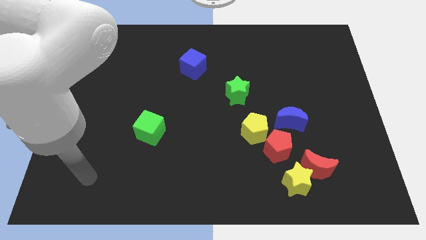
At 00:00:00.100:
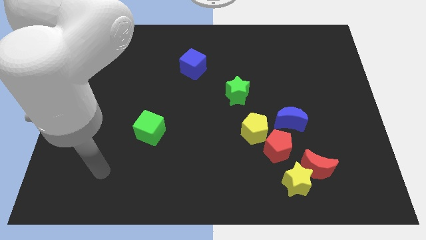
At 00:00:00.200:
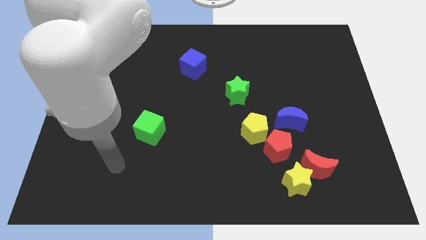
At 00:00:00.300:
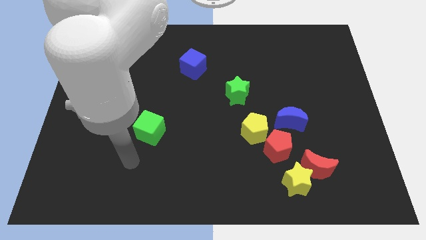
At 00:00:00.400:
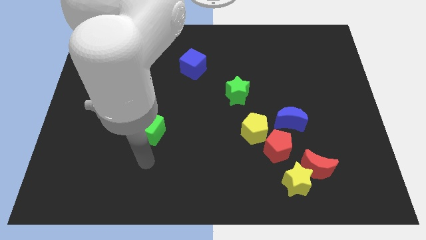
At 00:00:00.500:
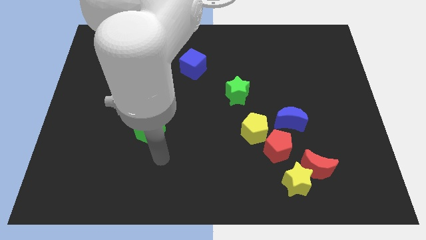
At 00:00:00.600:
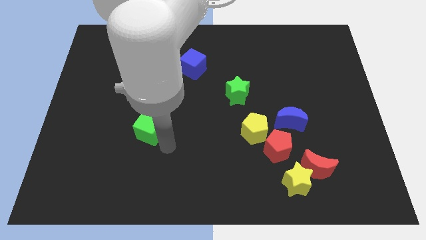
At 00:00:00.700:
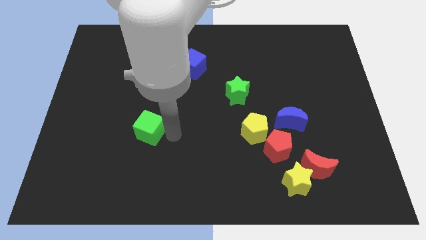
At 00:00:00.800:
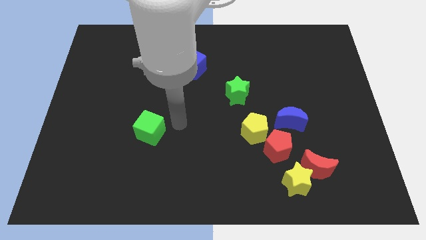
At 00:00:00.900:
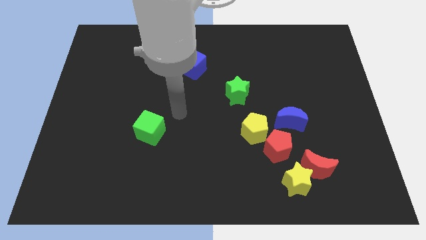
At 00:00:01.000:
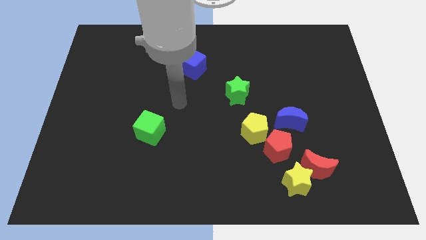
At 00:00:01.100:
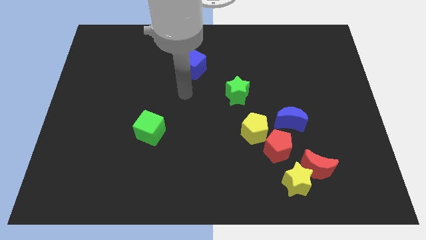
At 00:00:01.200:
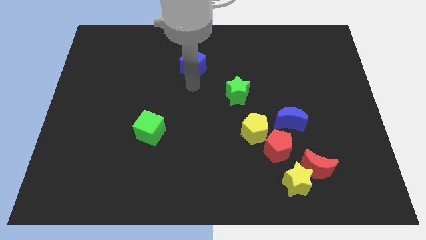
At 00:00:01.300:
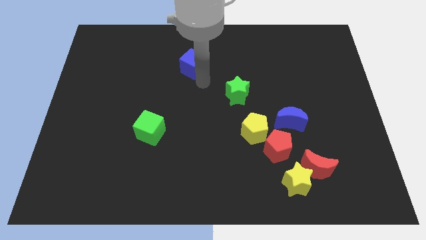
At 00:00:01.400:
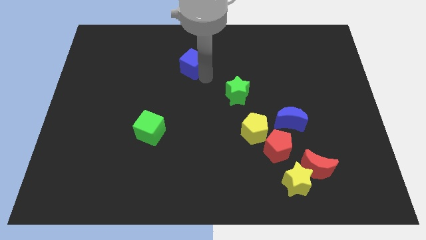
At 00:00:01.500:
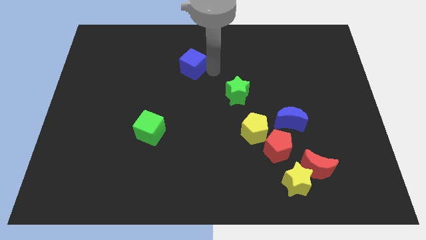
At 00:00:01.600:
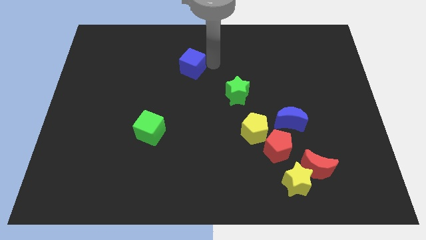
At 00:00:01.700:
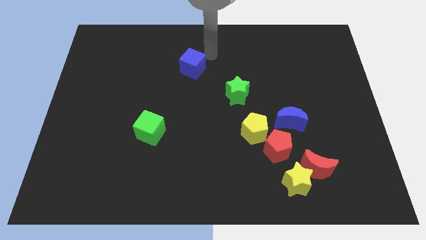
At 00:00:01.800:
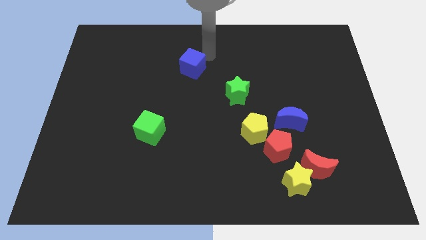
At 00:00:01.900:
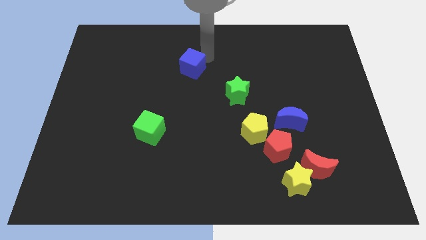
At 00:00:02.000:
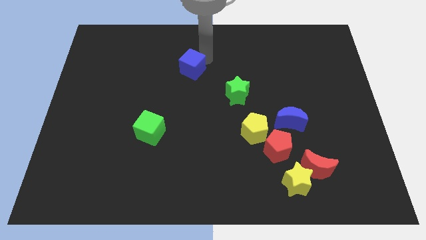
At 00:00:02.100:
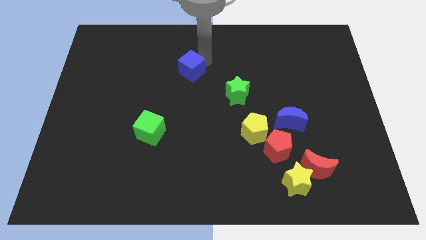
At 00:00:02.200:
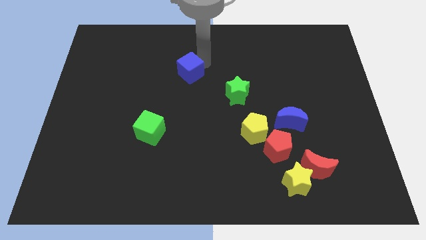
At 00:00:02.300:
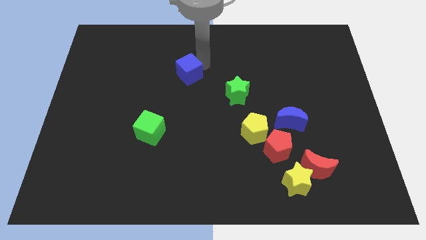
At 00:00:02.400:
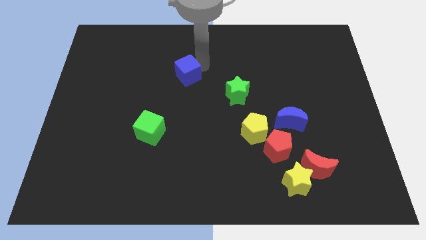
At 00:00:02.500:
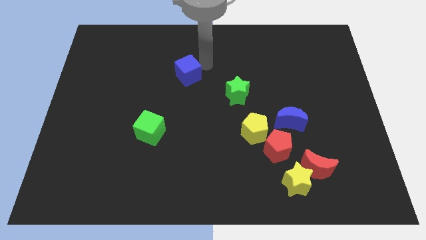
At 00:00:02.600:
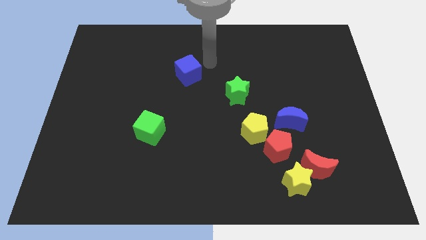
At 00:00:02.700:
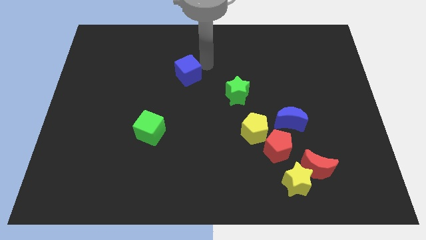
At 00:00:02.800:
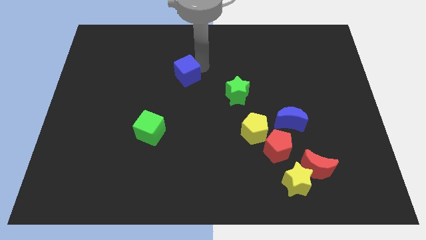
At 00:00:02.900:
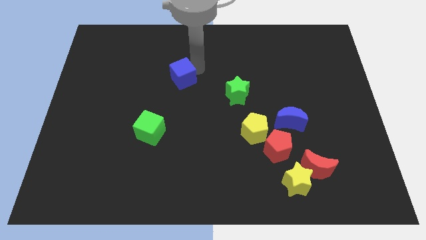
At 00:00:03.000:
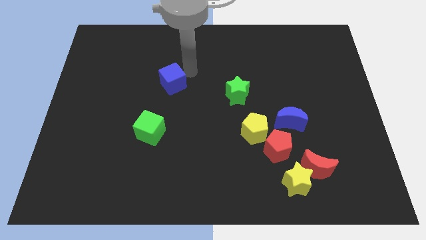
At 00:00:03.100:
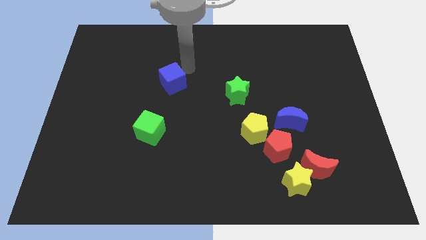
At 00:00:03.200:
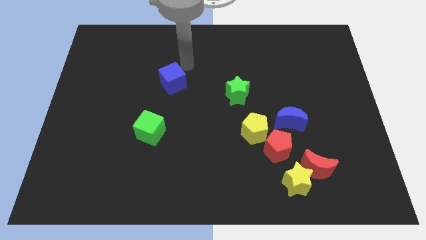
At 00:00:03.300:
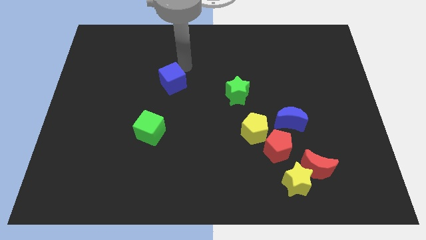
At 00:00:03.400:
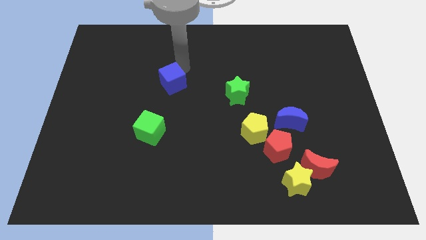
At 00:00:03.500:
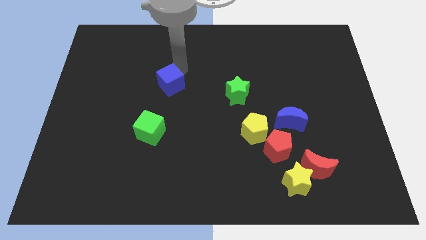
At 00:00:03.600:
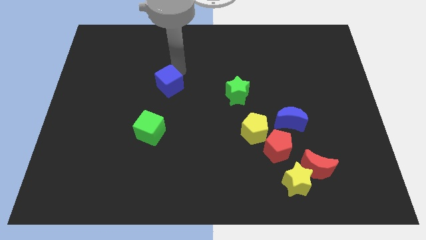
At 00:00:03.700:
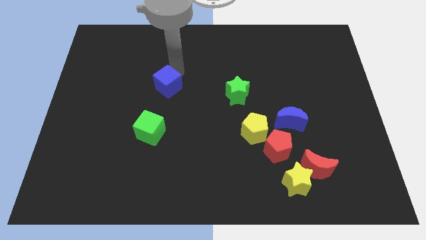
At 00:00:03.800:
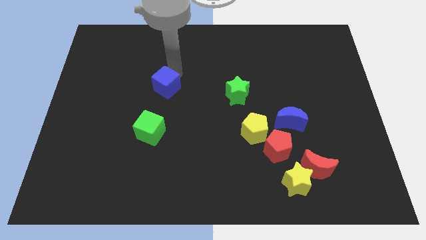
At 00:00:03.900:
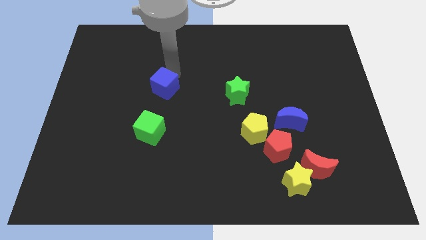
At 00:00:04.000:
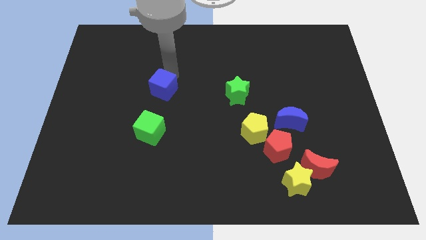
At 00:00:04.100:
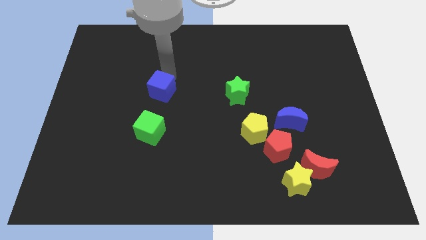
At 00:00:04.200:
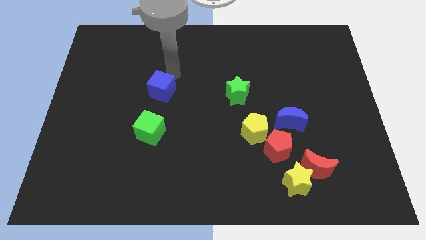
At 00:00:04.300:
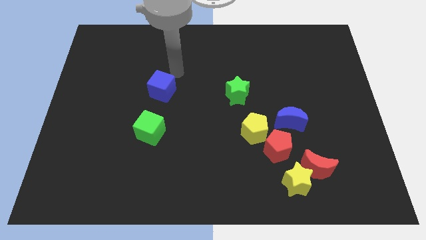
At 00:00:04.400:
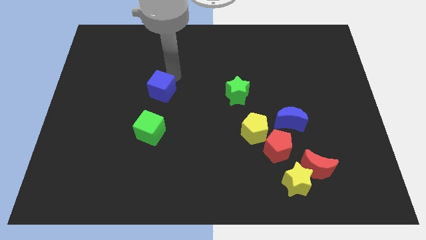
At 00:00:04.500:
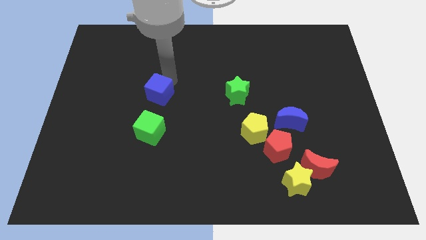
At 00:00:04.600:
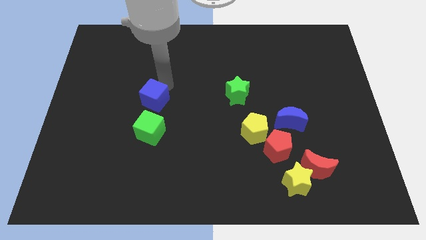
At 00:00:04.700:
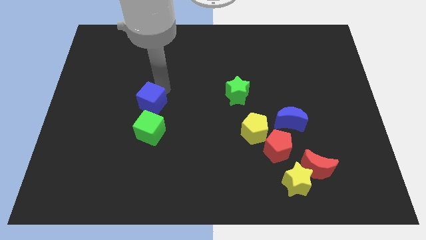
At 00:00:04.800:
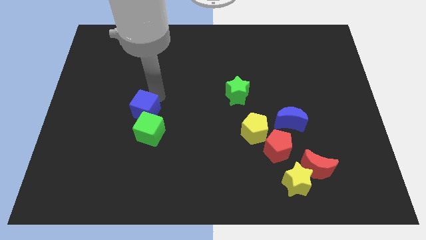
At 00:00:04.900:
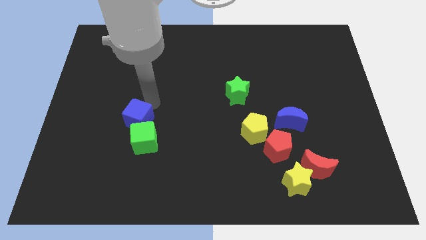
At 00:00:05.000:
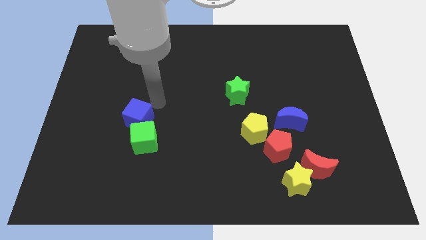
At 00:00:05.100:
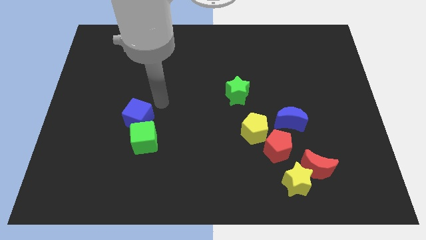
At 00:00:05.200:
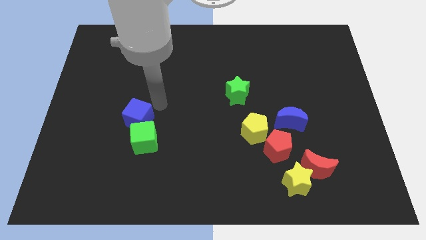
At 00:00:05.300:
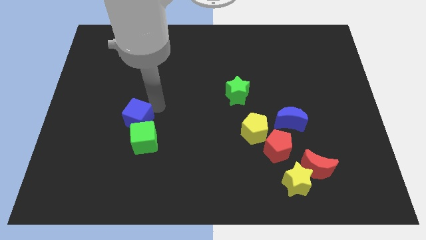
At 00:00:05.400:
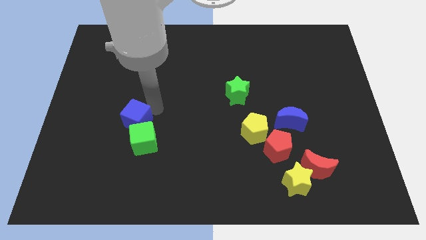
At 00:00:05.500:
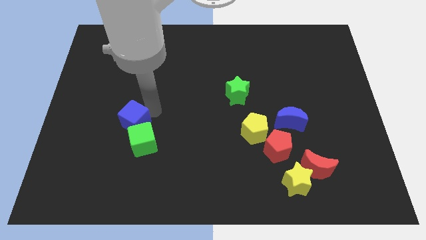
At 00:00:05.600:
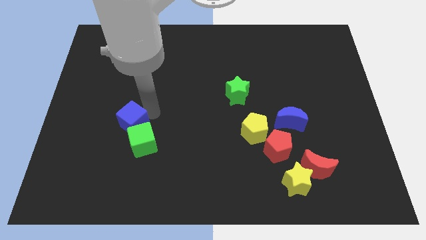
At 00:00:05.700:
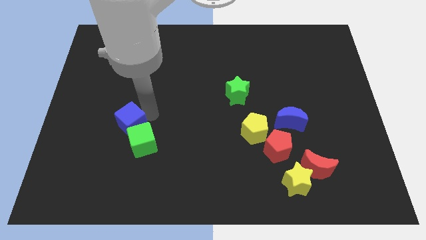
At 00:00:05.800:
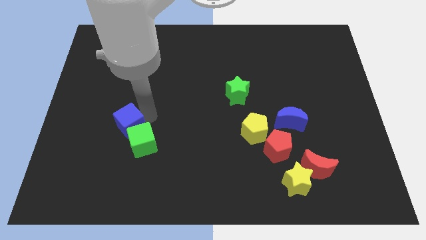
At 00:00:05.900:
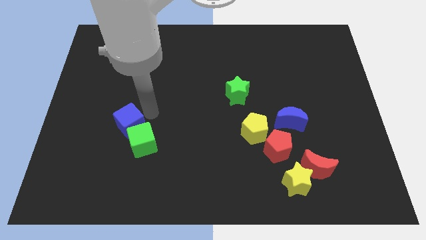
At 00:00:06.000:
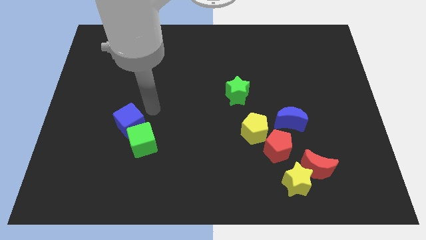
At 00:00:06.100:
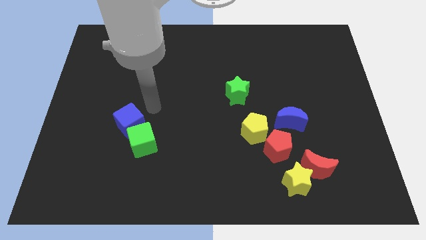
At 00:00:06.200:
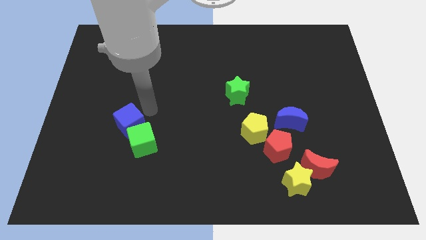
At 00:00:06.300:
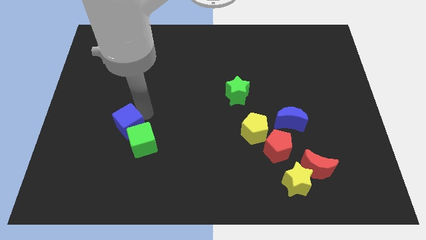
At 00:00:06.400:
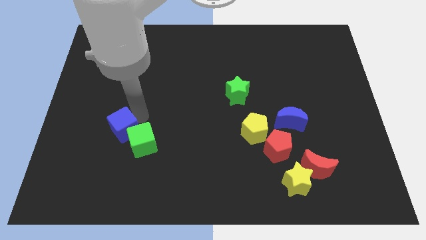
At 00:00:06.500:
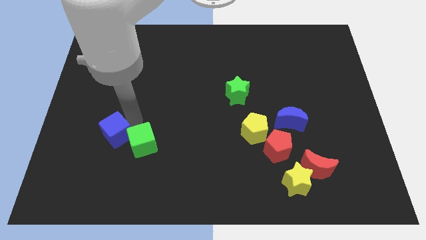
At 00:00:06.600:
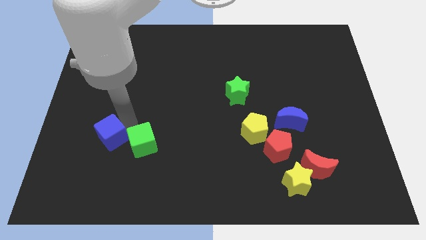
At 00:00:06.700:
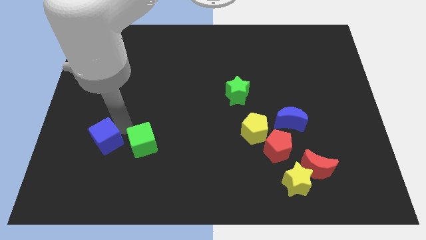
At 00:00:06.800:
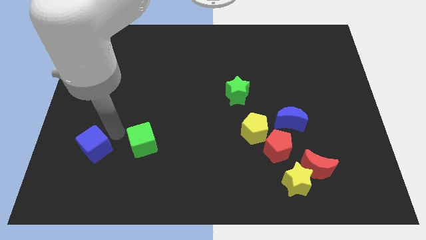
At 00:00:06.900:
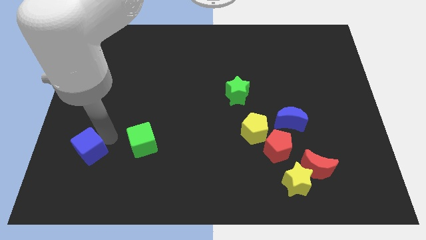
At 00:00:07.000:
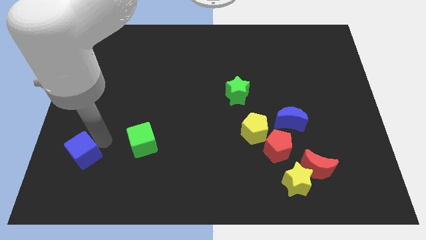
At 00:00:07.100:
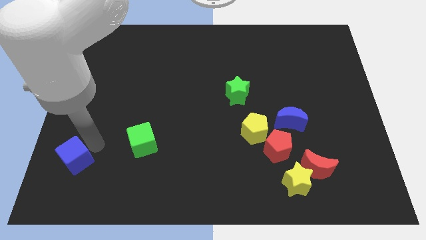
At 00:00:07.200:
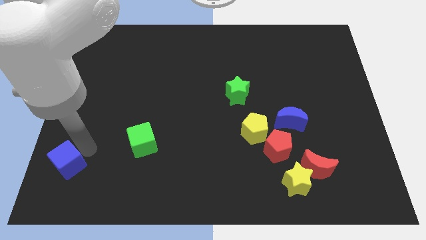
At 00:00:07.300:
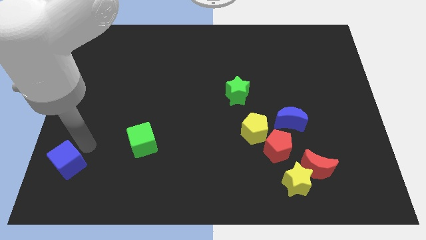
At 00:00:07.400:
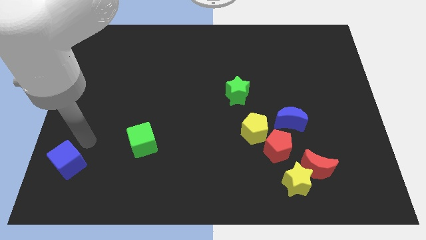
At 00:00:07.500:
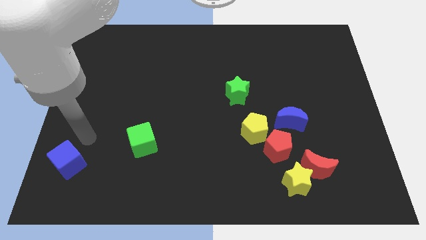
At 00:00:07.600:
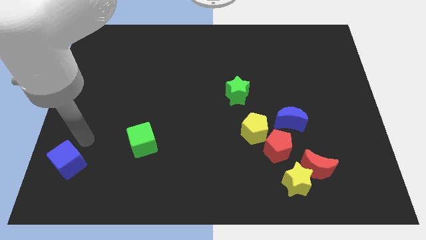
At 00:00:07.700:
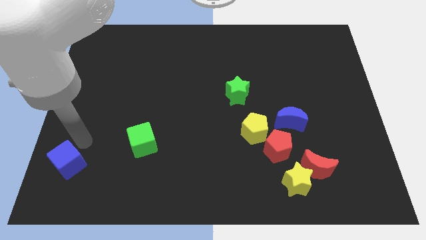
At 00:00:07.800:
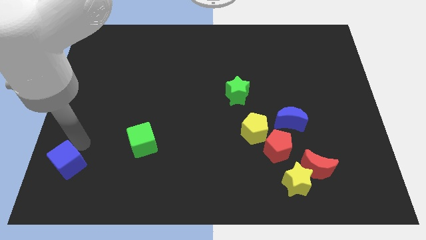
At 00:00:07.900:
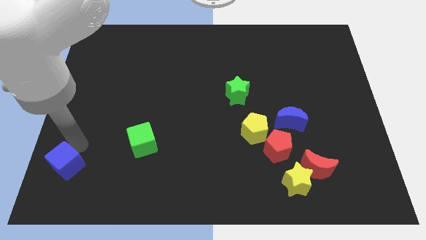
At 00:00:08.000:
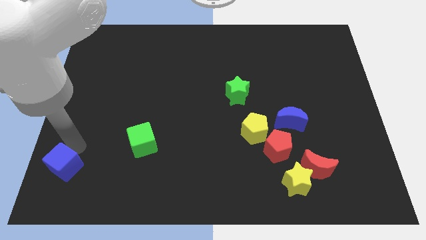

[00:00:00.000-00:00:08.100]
move the blue cube to the bottom left corner
